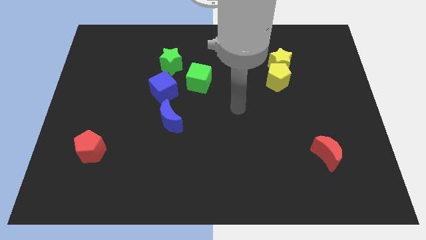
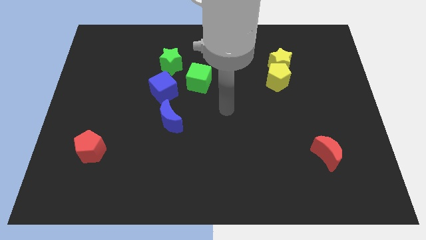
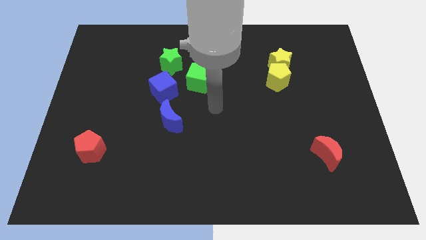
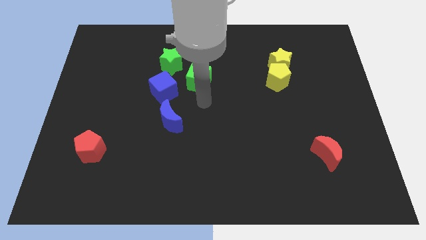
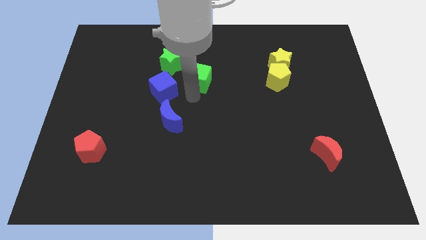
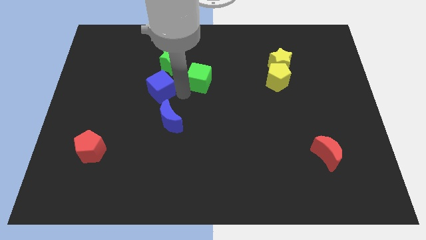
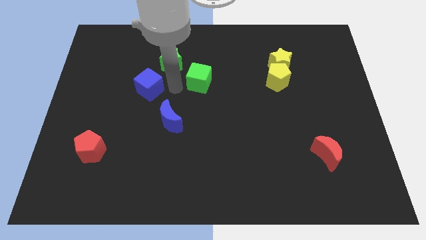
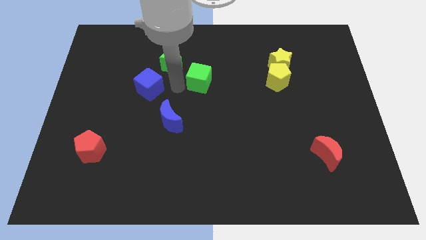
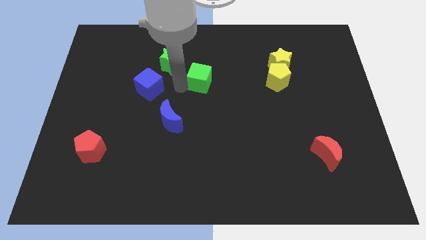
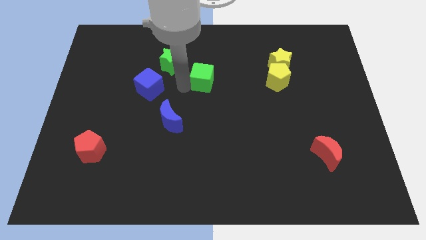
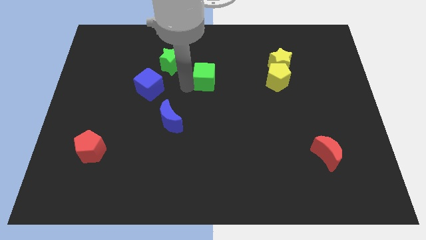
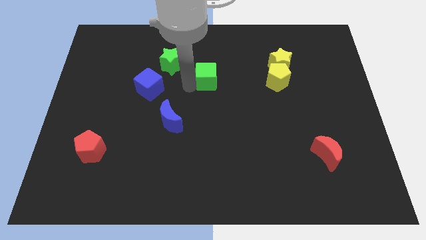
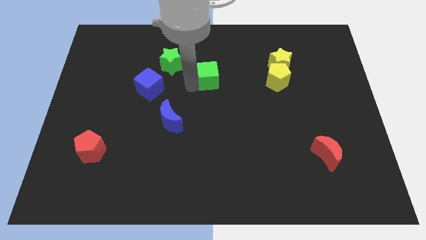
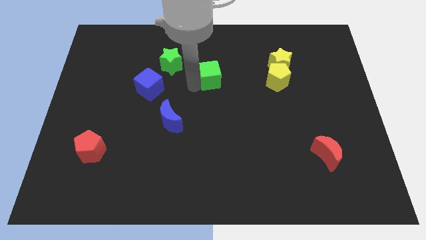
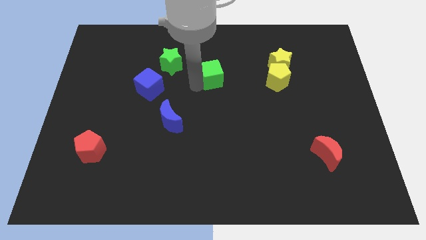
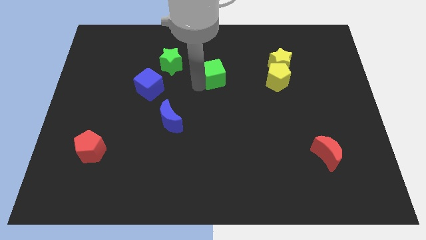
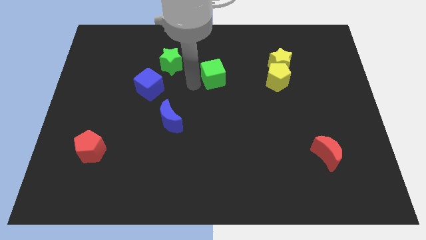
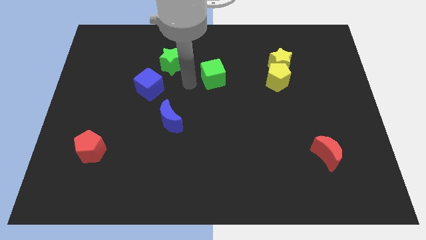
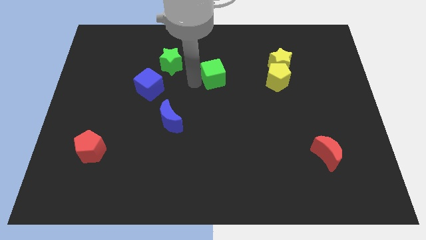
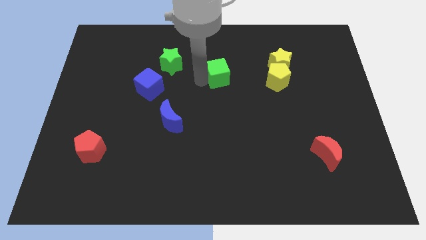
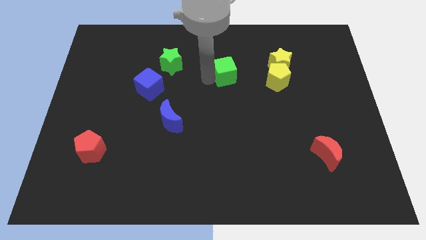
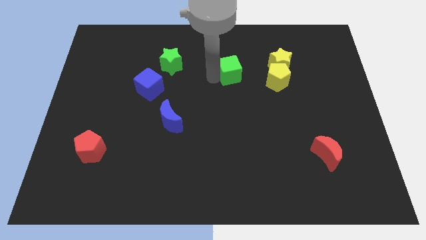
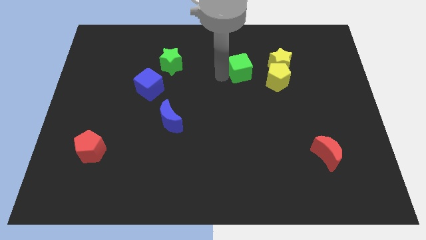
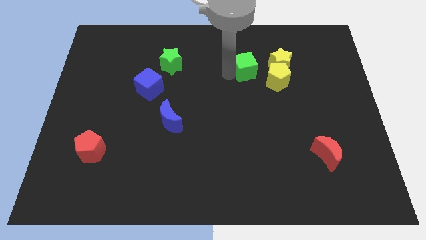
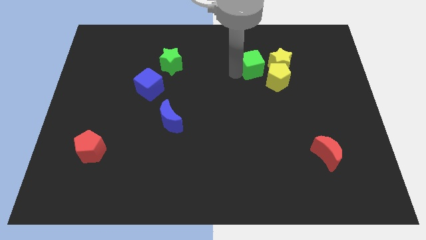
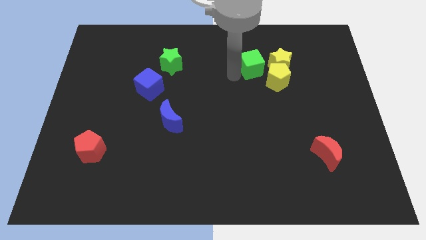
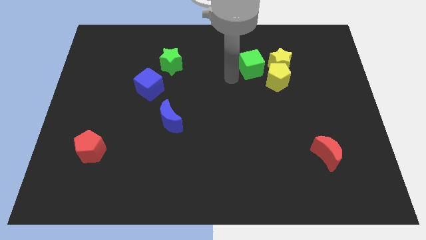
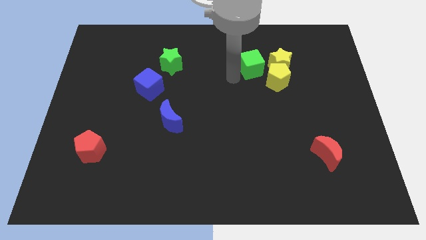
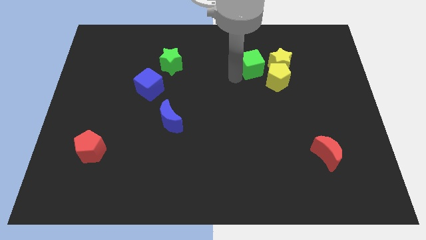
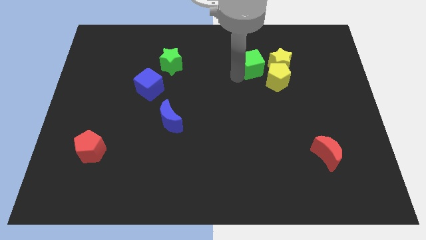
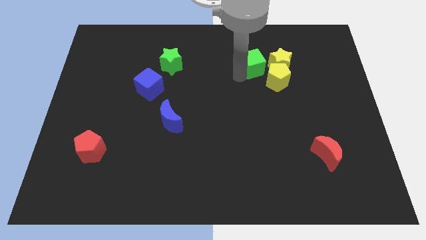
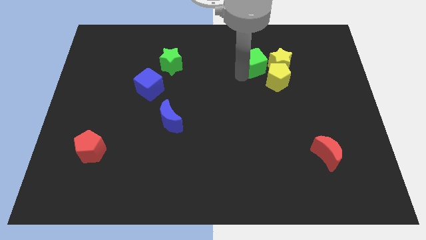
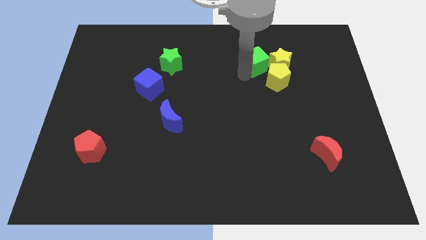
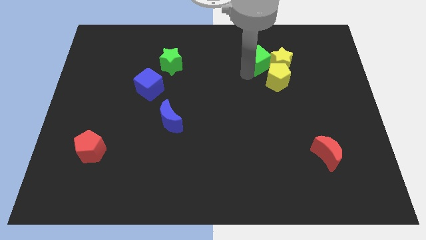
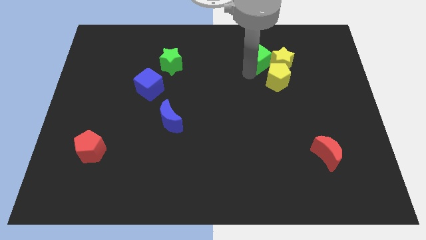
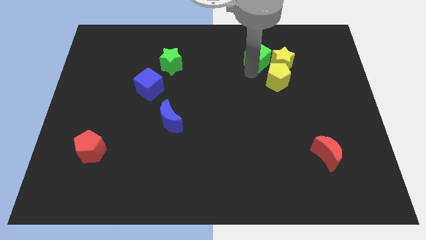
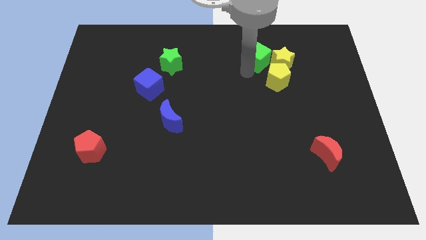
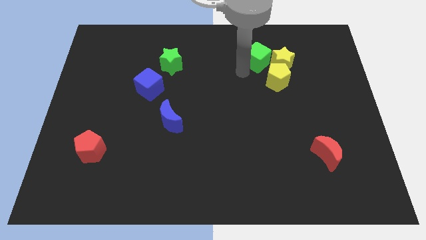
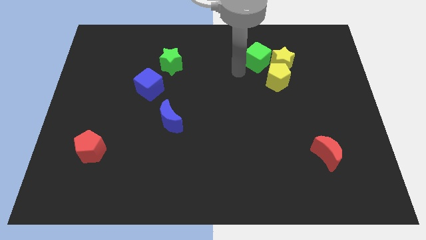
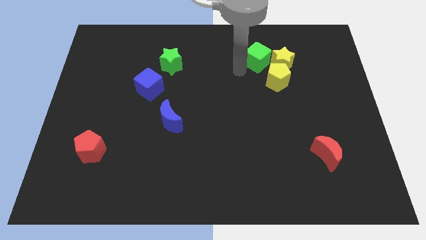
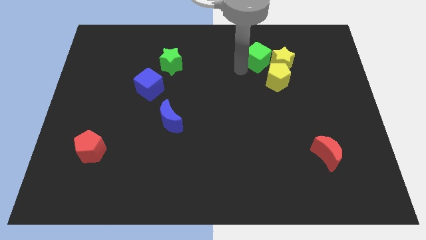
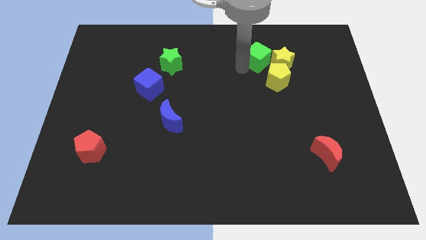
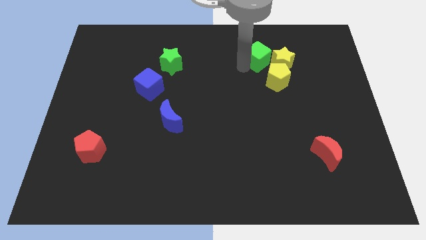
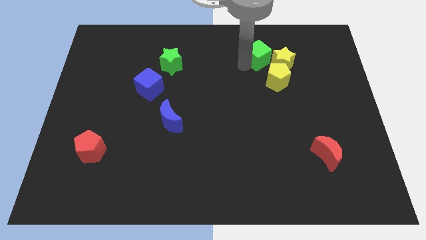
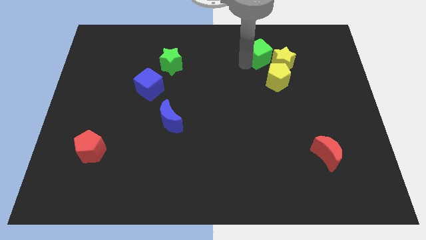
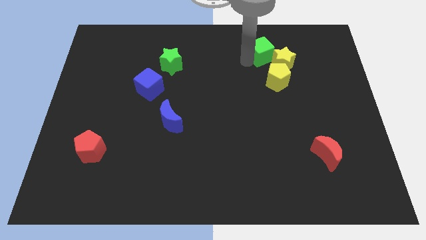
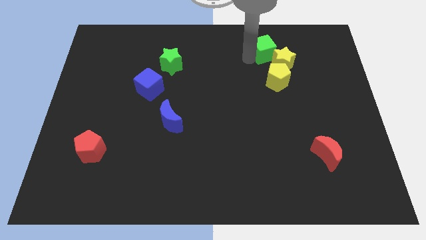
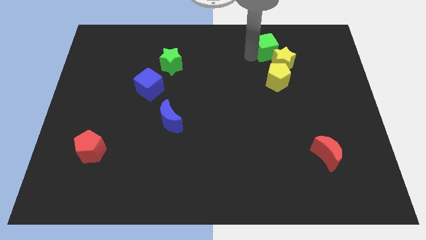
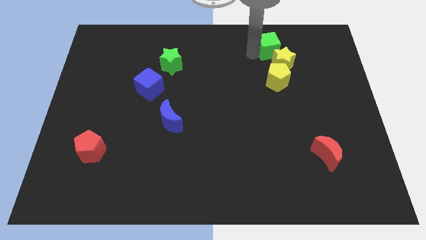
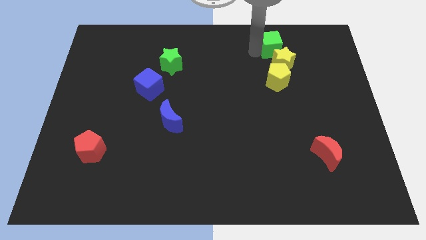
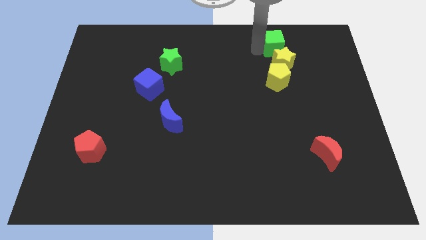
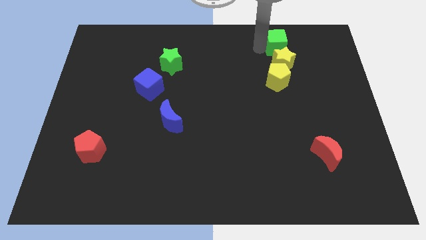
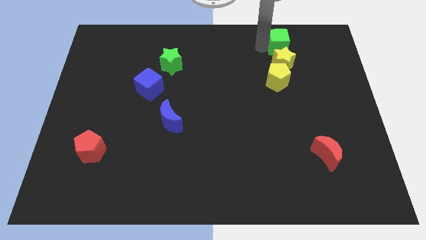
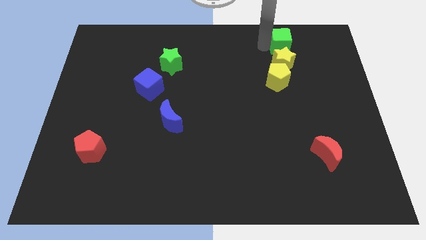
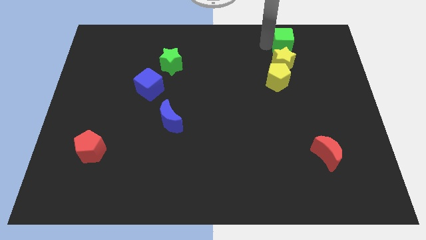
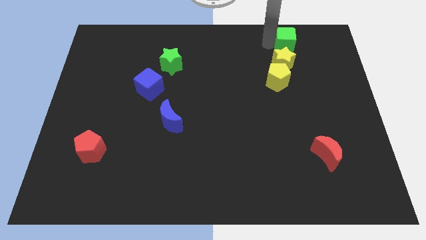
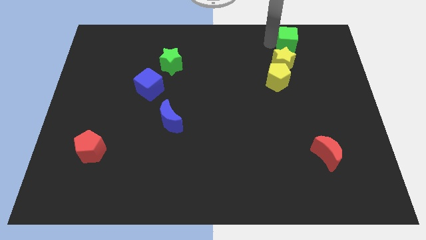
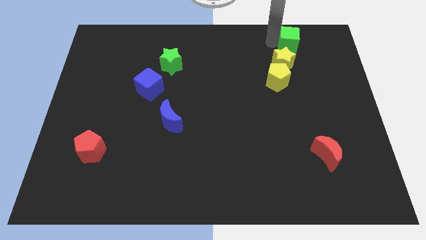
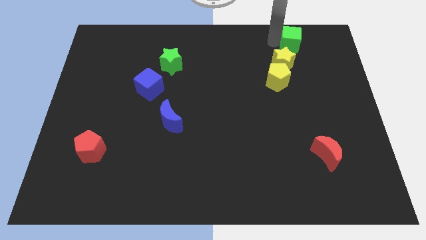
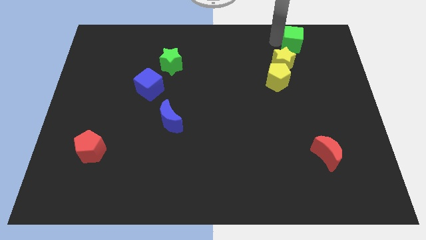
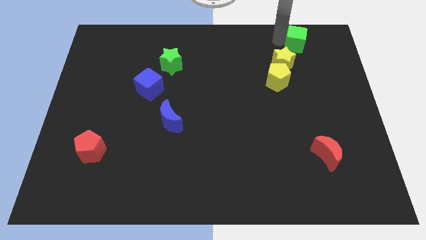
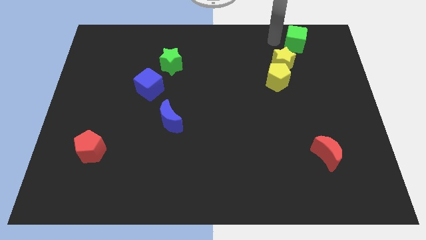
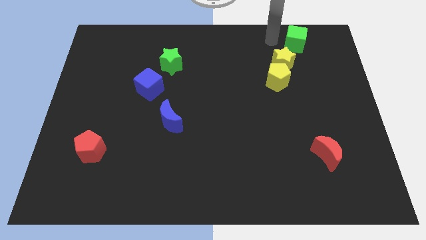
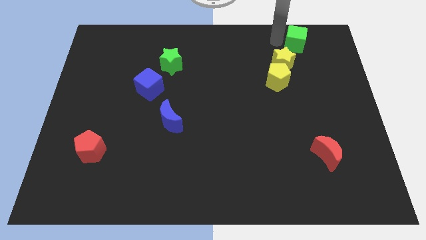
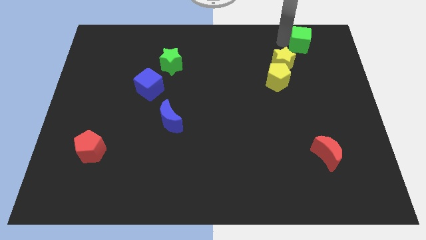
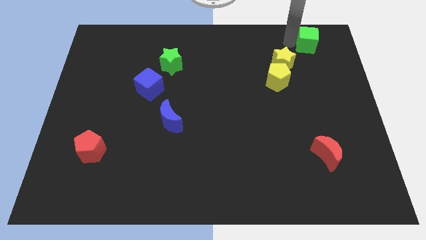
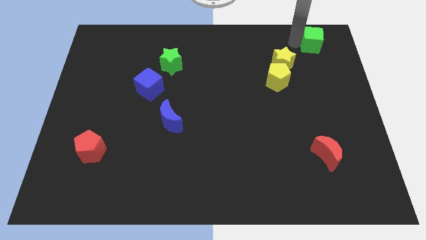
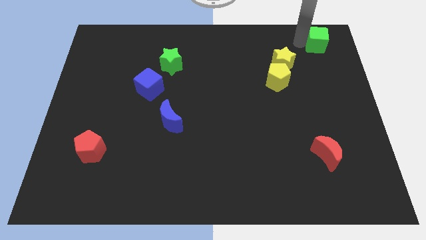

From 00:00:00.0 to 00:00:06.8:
slide the green cube to the top right corner
